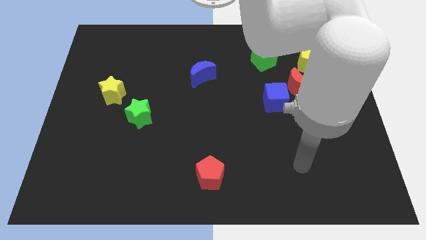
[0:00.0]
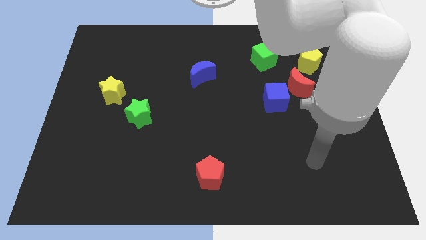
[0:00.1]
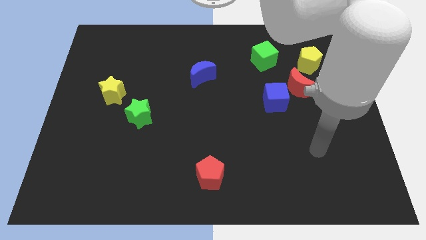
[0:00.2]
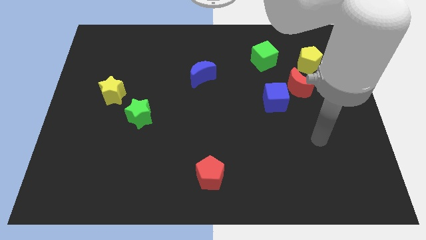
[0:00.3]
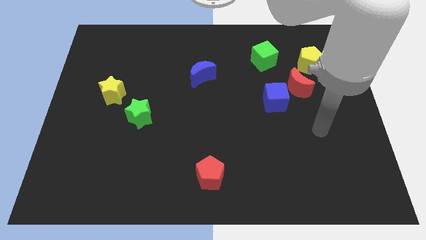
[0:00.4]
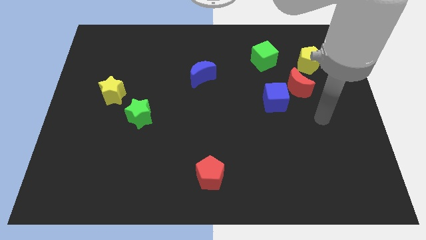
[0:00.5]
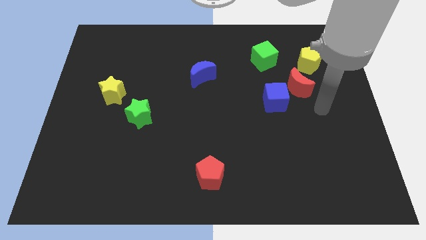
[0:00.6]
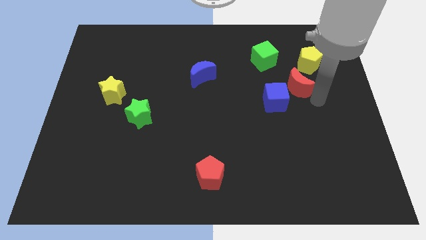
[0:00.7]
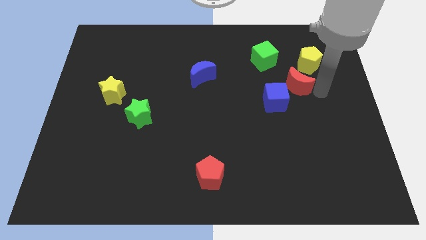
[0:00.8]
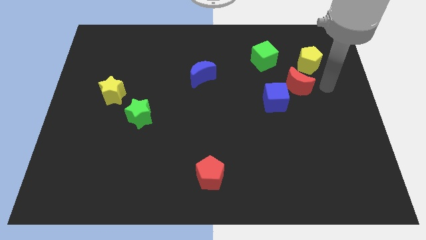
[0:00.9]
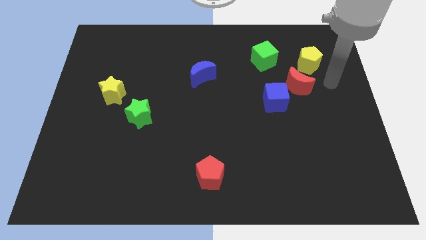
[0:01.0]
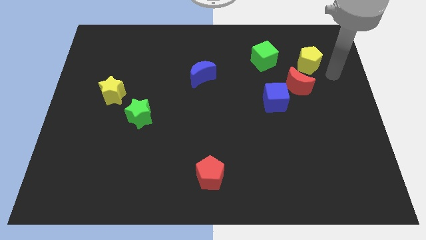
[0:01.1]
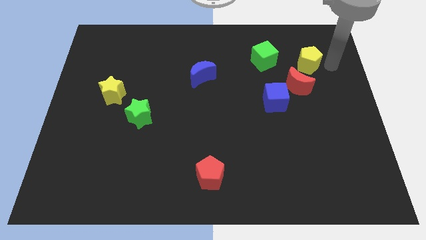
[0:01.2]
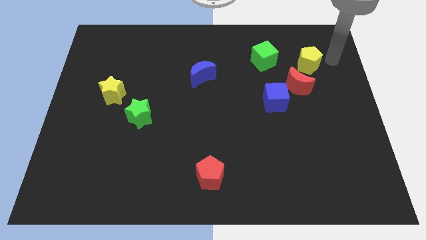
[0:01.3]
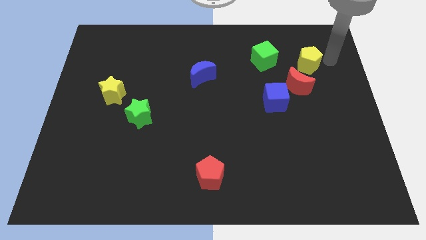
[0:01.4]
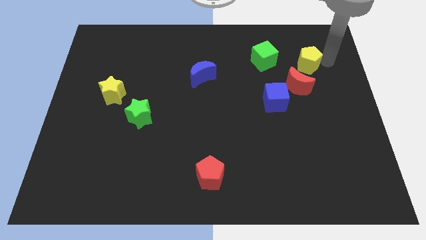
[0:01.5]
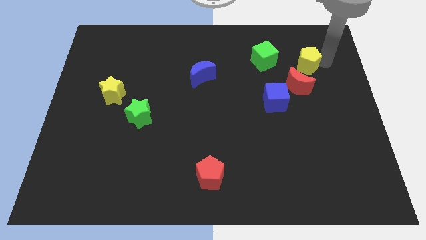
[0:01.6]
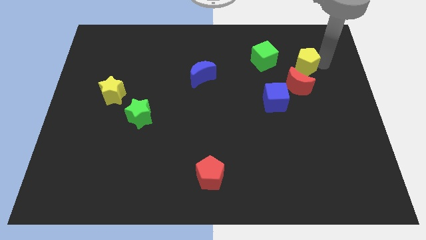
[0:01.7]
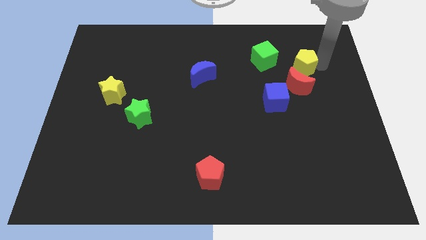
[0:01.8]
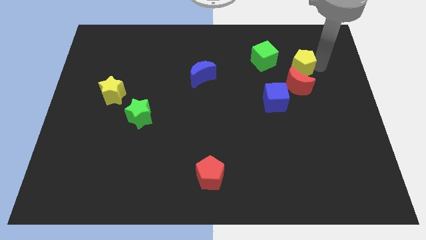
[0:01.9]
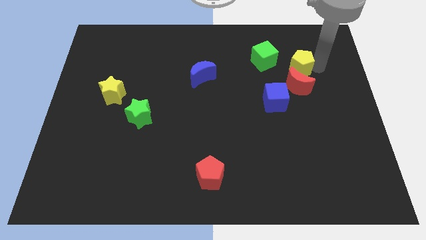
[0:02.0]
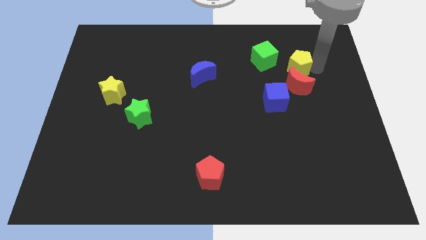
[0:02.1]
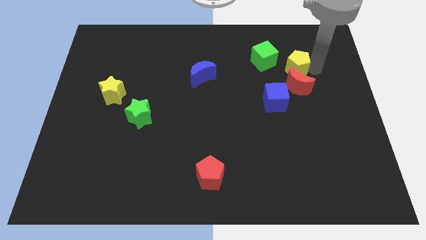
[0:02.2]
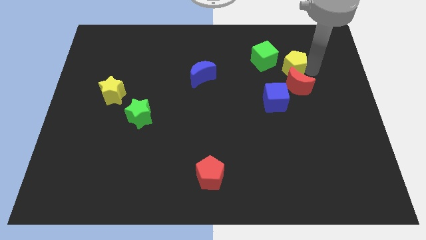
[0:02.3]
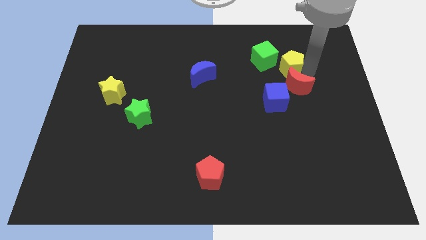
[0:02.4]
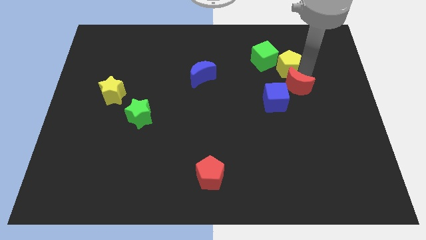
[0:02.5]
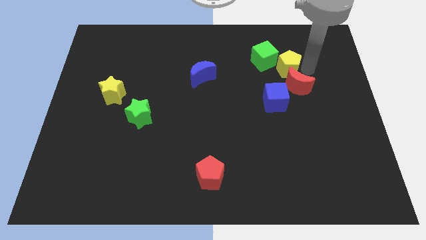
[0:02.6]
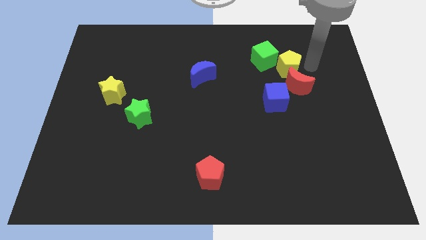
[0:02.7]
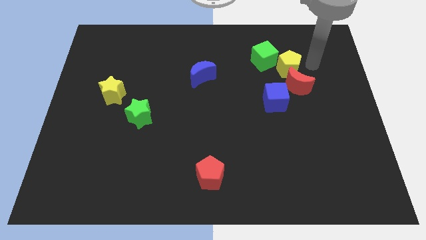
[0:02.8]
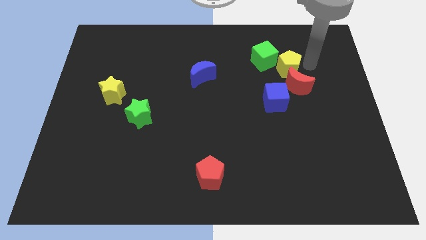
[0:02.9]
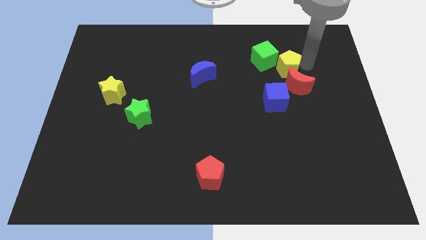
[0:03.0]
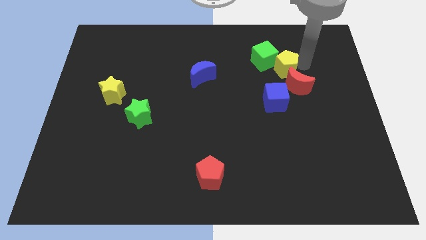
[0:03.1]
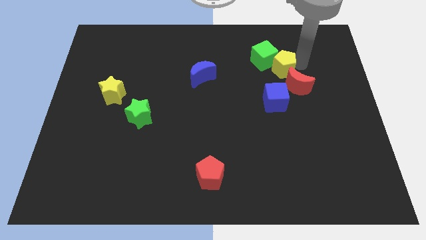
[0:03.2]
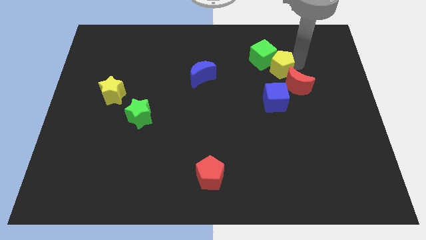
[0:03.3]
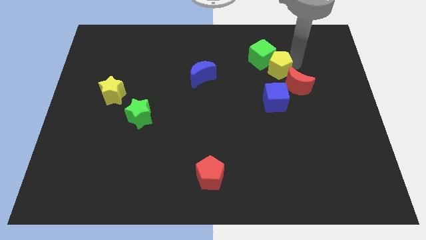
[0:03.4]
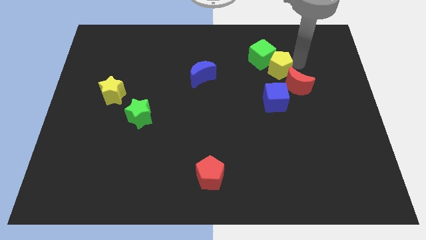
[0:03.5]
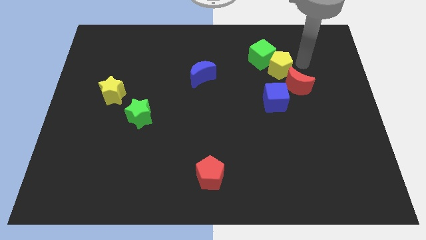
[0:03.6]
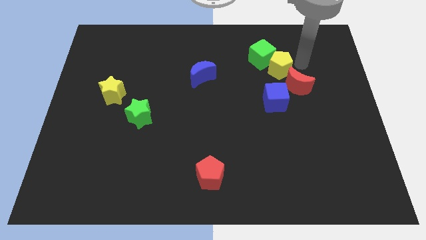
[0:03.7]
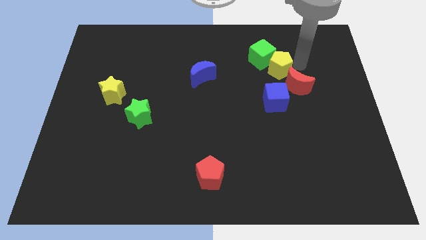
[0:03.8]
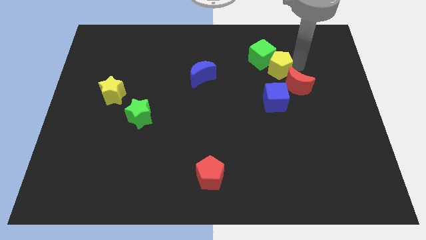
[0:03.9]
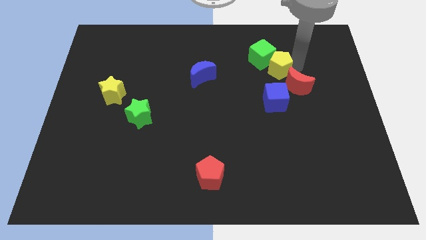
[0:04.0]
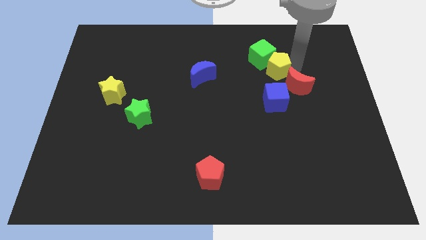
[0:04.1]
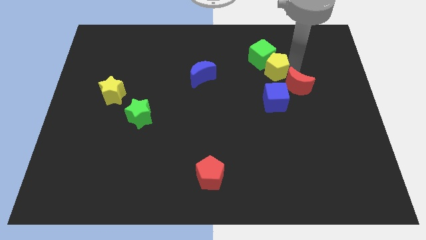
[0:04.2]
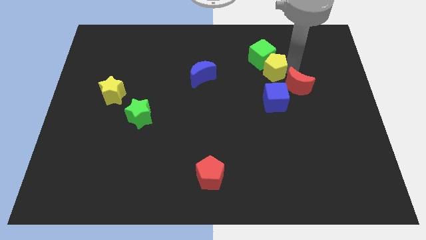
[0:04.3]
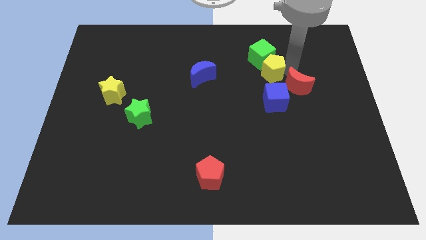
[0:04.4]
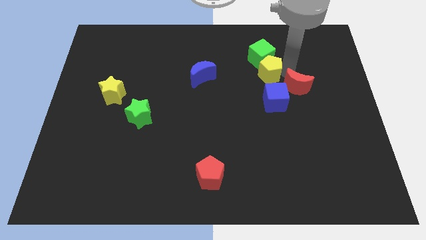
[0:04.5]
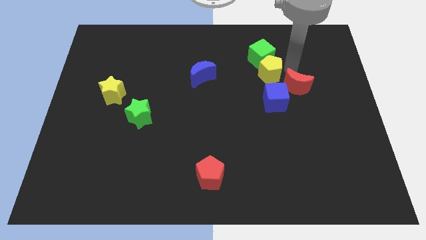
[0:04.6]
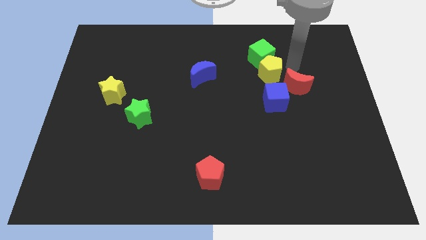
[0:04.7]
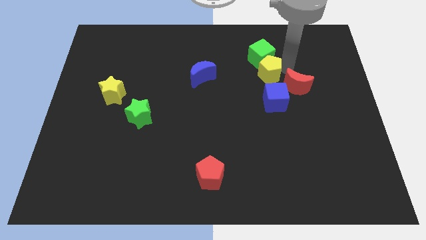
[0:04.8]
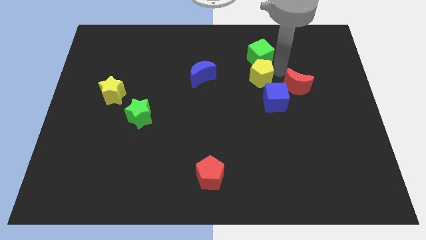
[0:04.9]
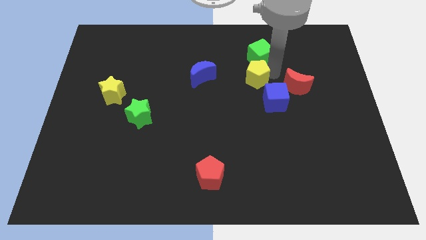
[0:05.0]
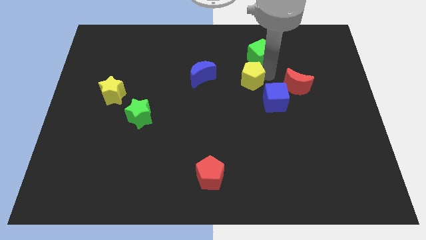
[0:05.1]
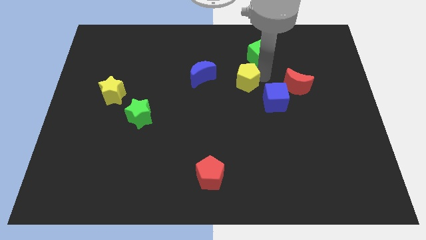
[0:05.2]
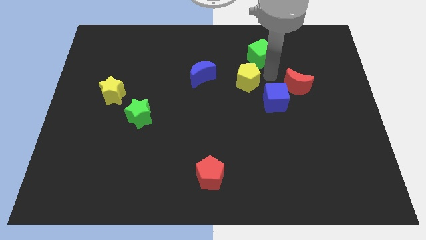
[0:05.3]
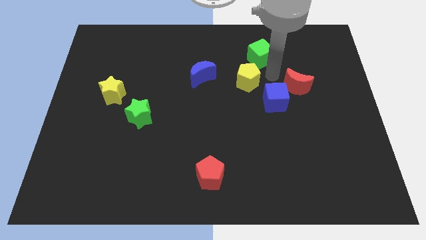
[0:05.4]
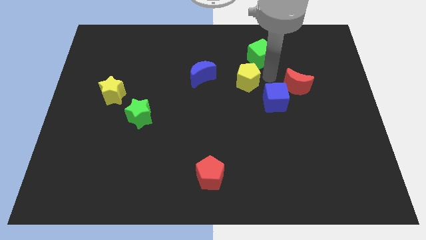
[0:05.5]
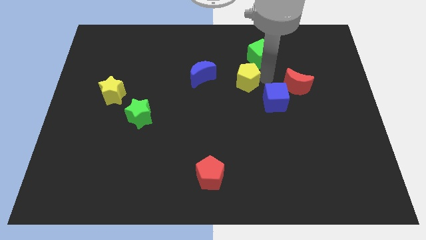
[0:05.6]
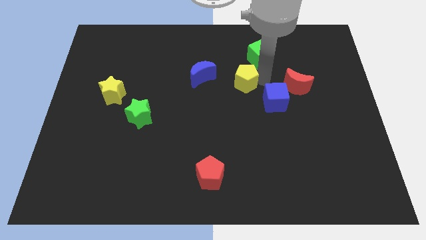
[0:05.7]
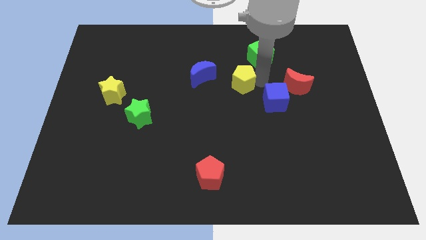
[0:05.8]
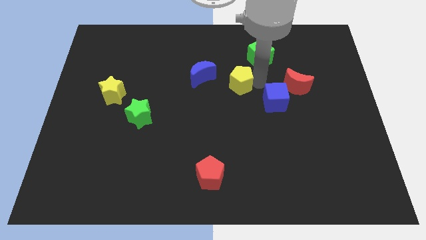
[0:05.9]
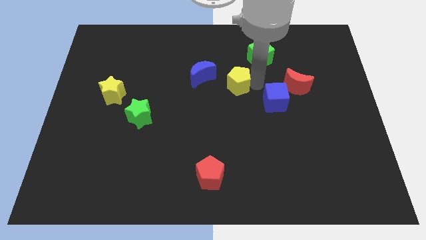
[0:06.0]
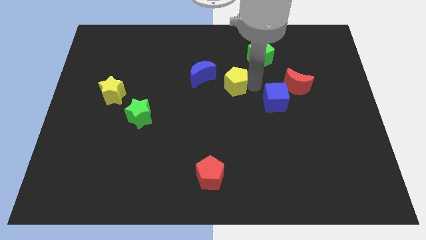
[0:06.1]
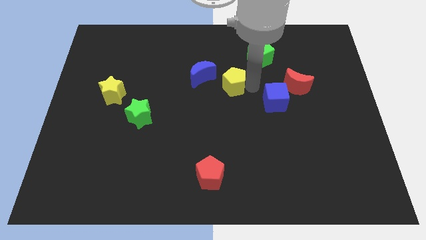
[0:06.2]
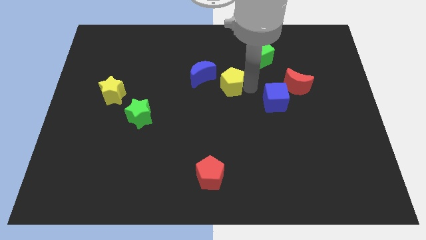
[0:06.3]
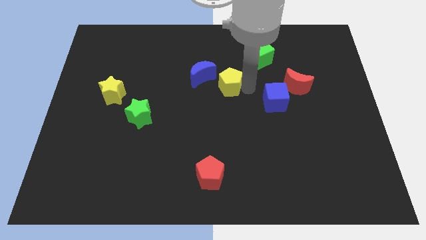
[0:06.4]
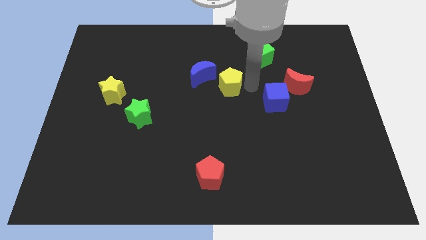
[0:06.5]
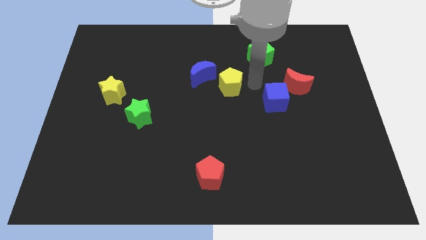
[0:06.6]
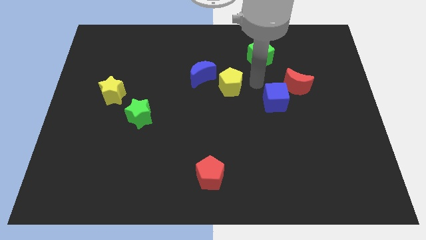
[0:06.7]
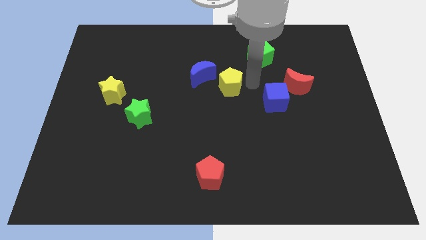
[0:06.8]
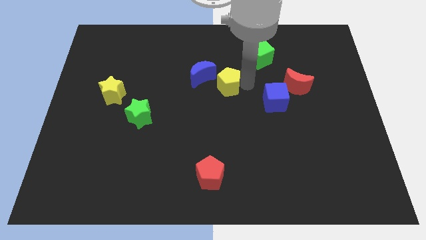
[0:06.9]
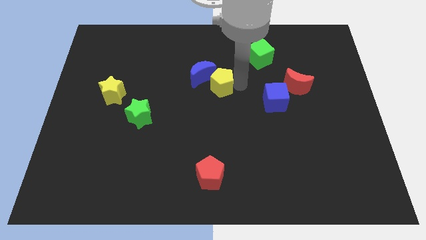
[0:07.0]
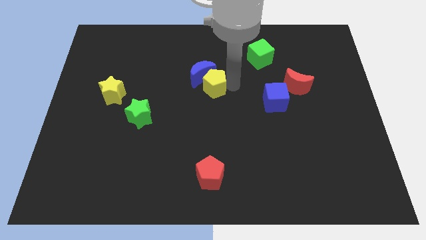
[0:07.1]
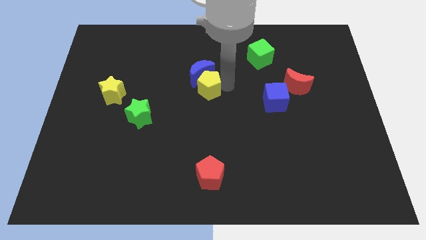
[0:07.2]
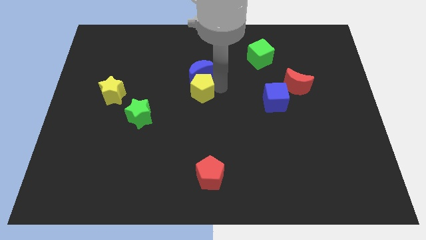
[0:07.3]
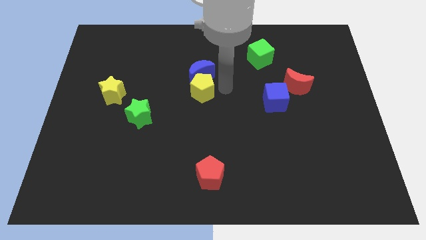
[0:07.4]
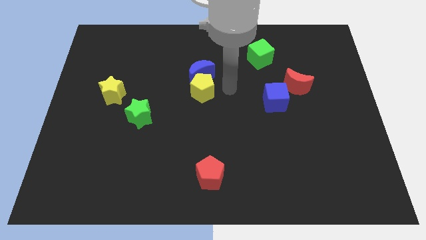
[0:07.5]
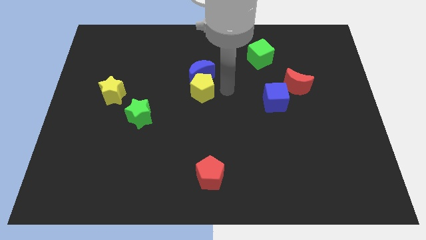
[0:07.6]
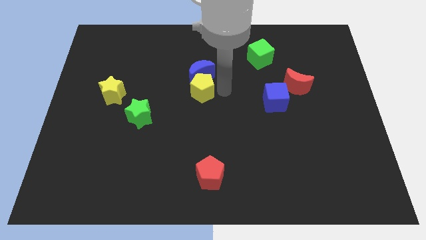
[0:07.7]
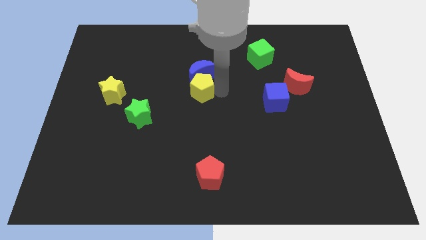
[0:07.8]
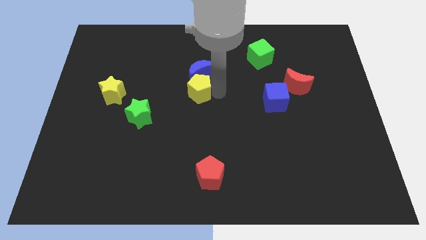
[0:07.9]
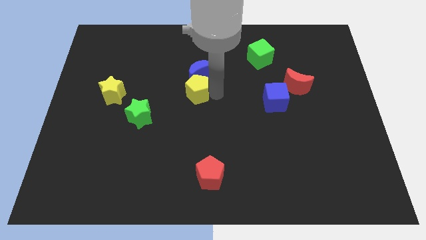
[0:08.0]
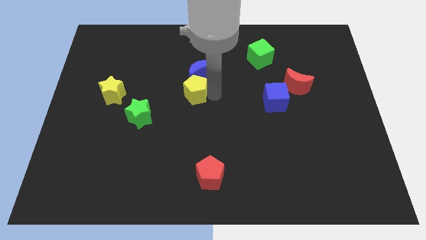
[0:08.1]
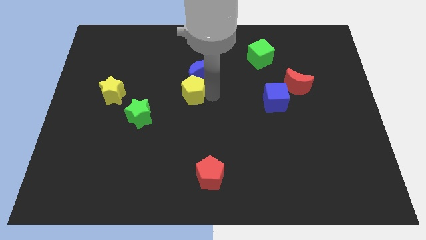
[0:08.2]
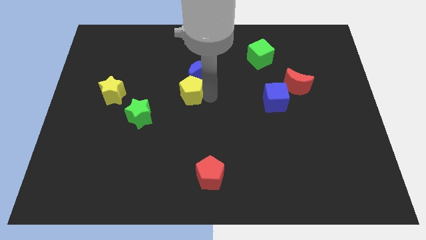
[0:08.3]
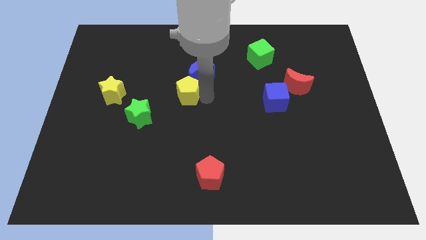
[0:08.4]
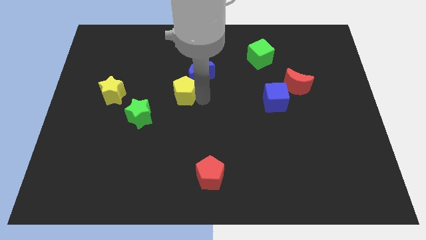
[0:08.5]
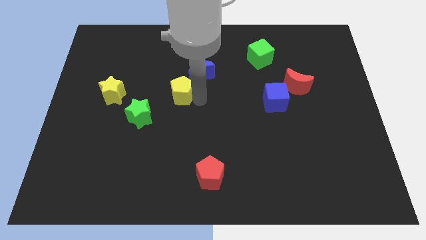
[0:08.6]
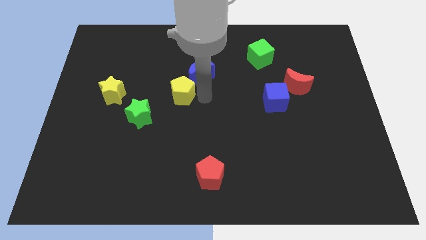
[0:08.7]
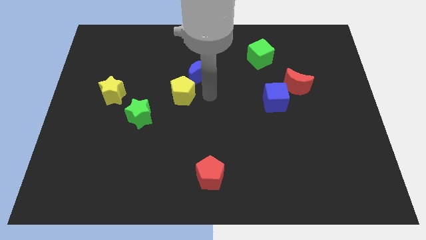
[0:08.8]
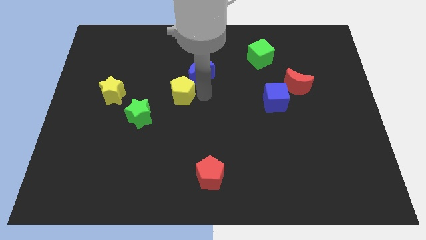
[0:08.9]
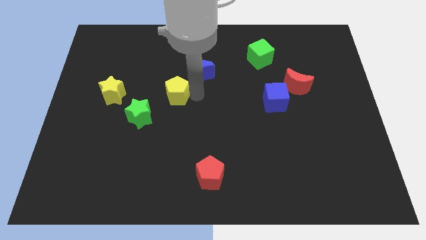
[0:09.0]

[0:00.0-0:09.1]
push the yellow pentagon to the right of the yellow star
